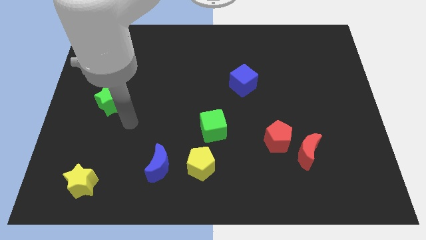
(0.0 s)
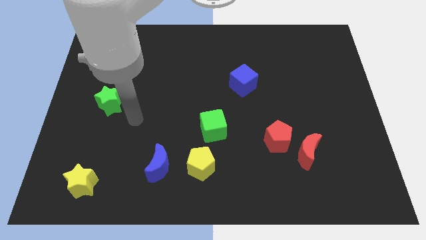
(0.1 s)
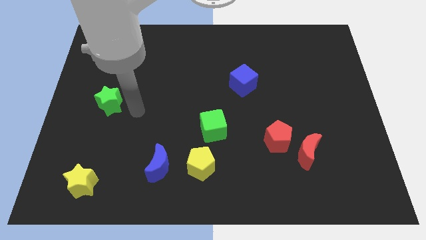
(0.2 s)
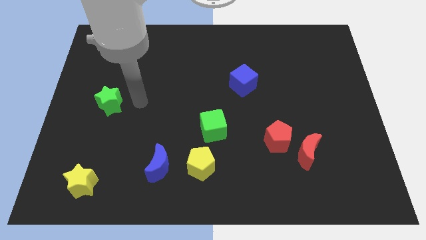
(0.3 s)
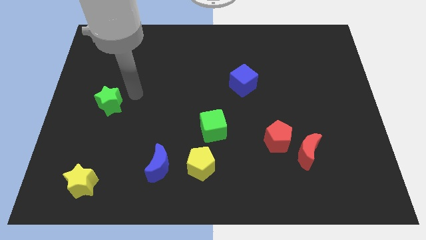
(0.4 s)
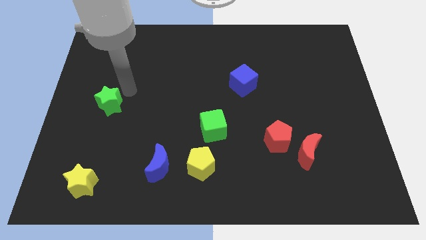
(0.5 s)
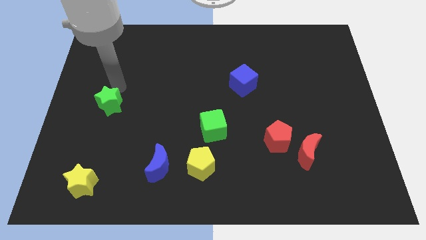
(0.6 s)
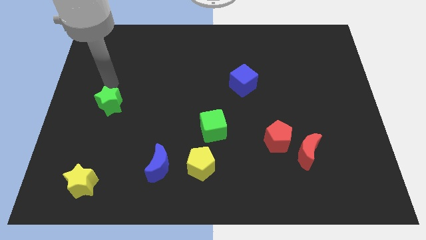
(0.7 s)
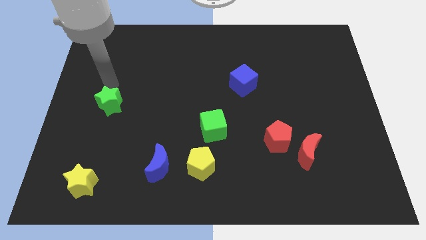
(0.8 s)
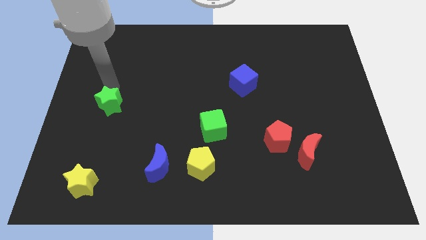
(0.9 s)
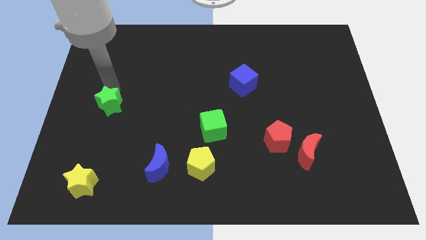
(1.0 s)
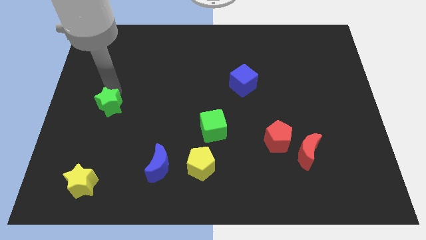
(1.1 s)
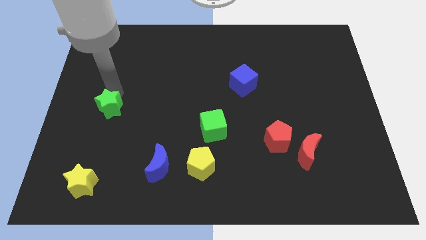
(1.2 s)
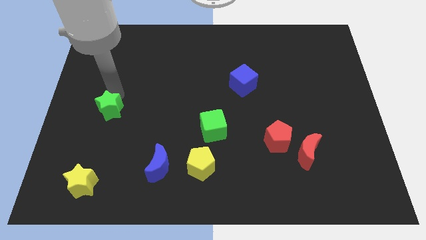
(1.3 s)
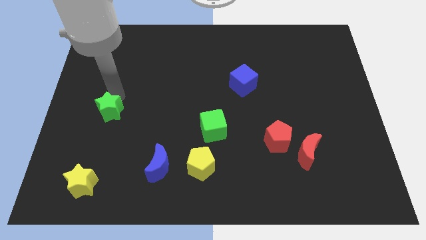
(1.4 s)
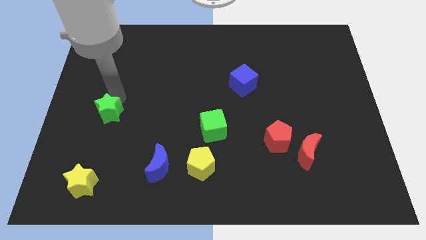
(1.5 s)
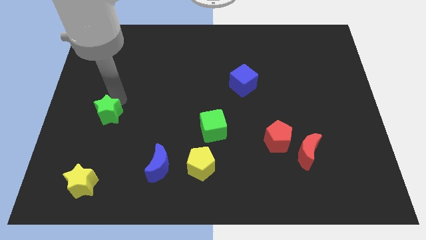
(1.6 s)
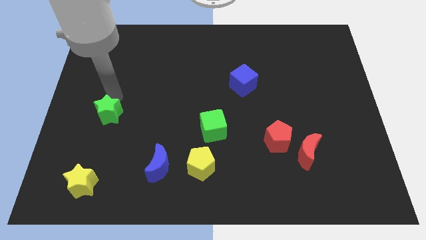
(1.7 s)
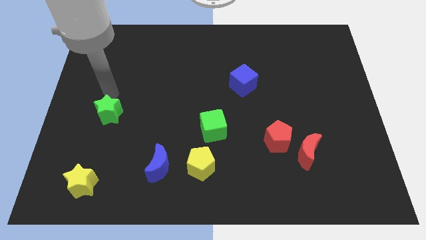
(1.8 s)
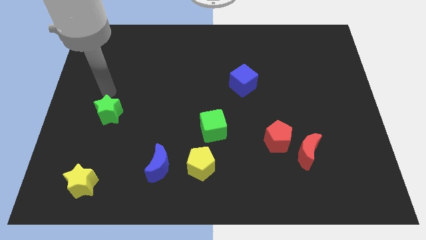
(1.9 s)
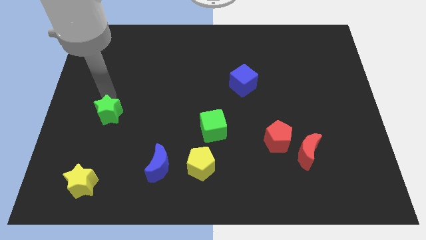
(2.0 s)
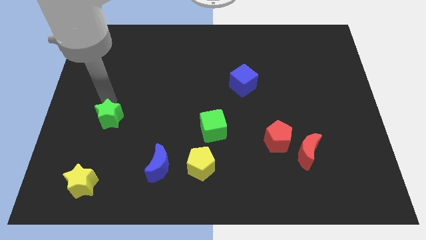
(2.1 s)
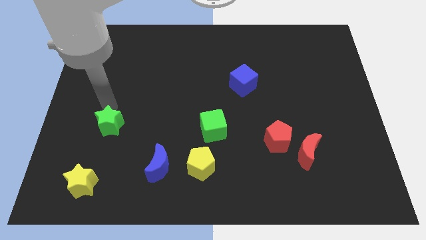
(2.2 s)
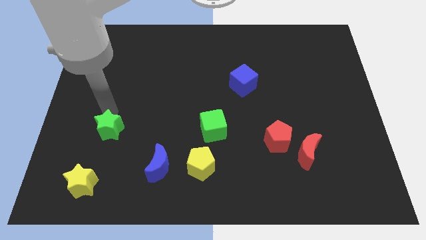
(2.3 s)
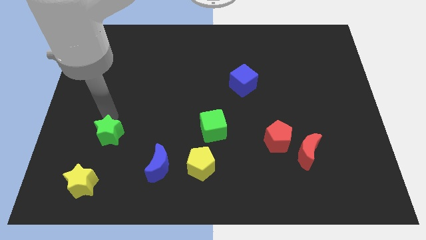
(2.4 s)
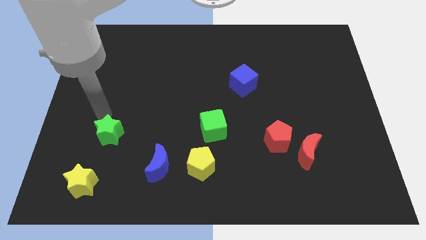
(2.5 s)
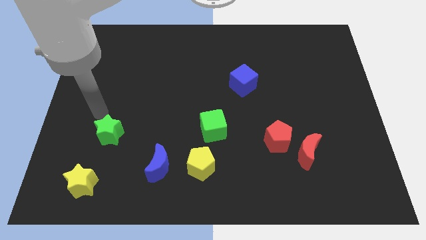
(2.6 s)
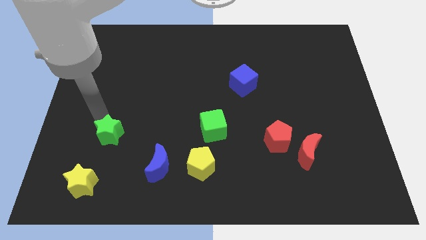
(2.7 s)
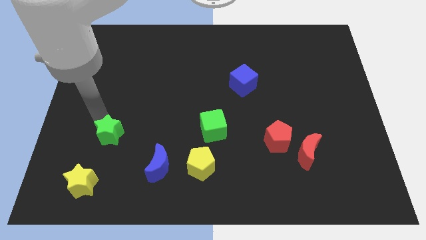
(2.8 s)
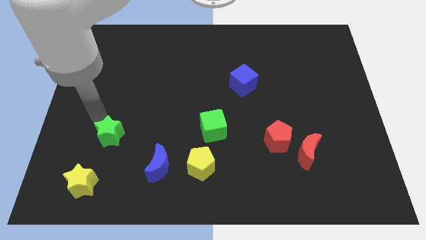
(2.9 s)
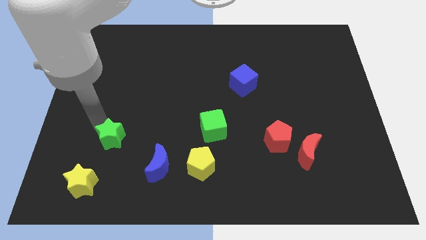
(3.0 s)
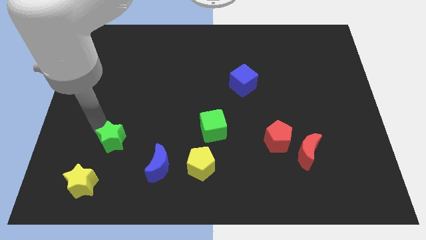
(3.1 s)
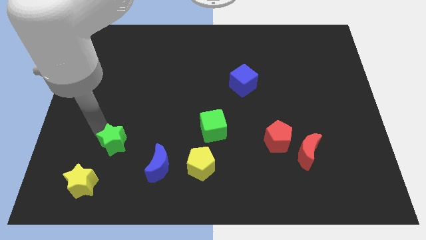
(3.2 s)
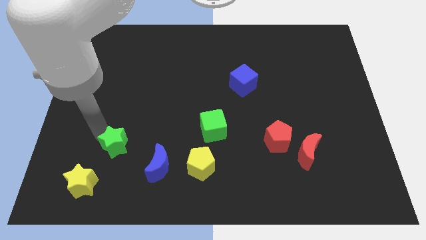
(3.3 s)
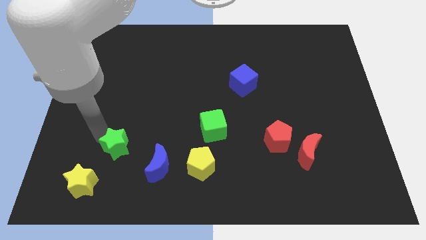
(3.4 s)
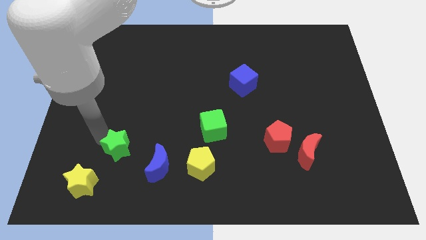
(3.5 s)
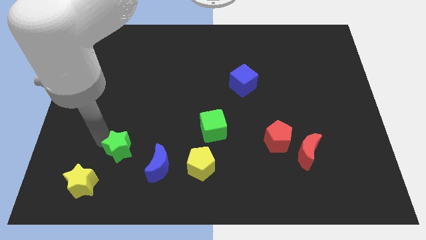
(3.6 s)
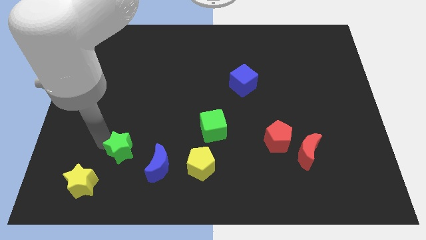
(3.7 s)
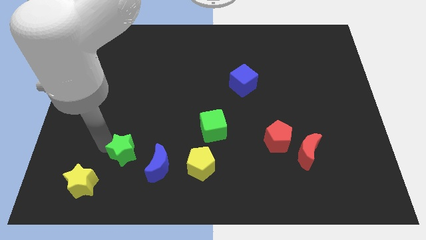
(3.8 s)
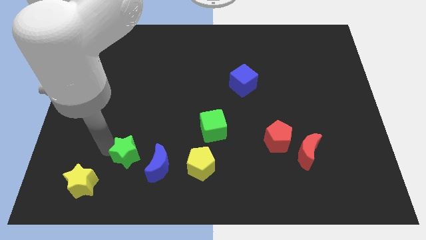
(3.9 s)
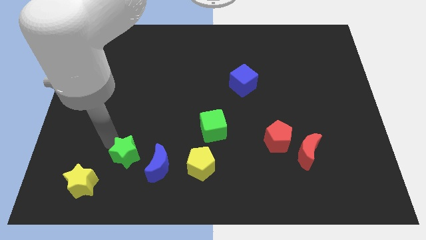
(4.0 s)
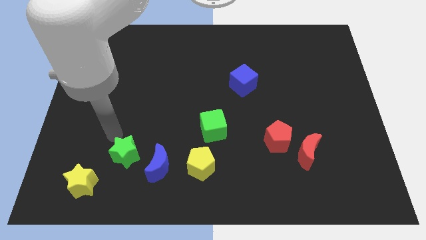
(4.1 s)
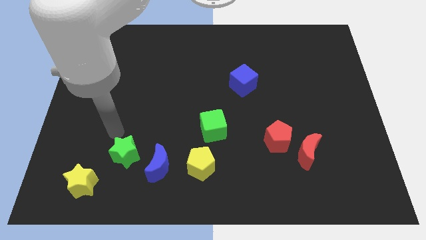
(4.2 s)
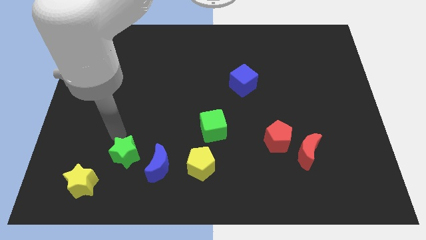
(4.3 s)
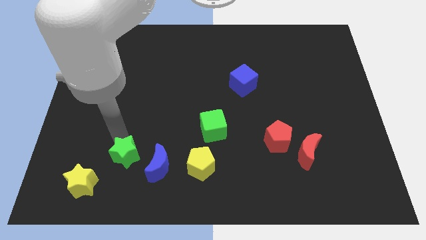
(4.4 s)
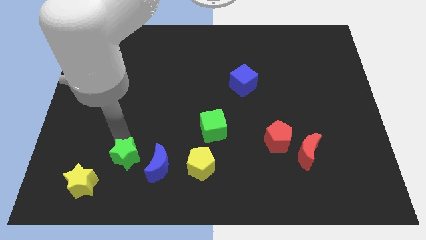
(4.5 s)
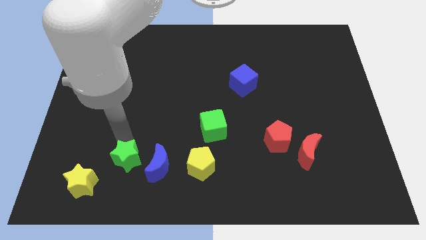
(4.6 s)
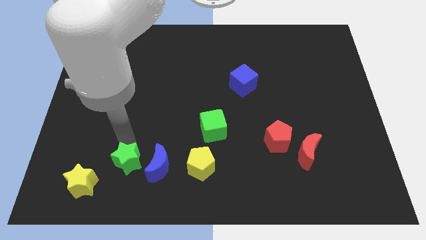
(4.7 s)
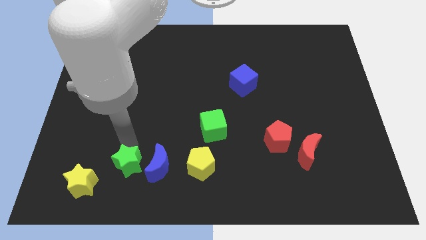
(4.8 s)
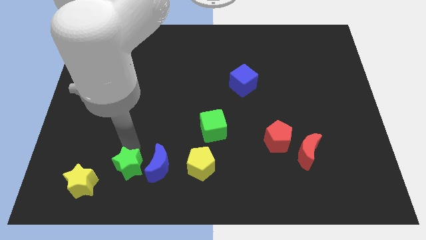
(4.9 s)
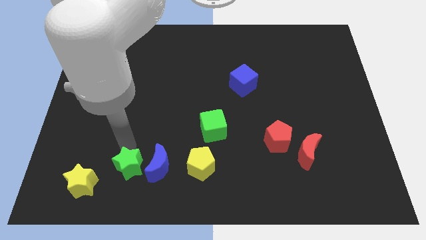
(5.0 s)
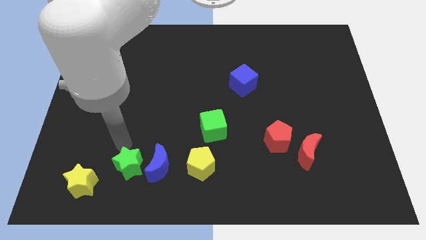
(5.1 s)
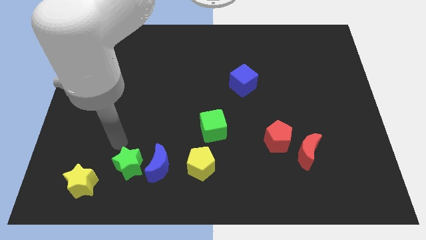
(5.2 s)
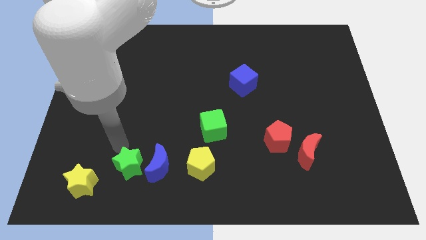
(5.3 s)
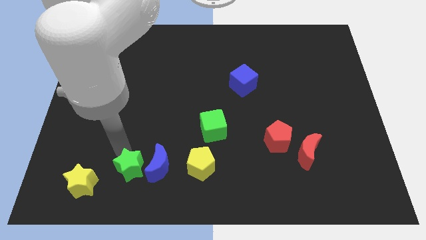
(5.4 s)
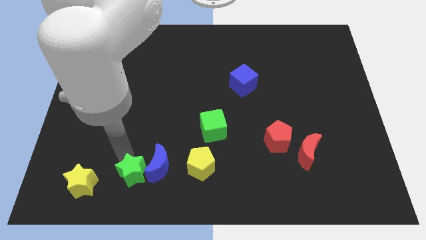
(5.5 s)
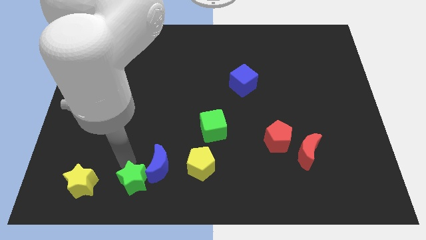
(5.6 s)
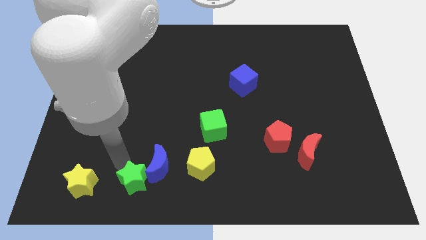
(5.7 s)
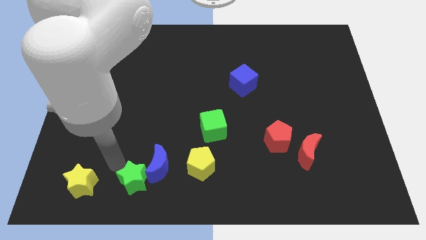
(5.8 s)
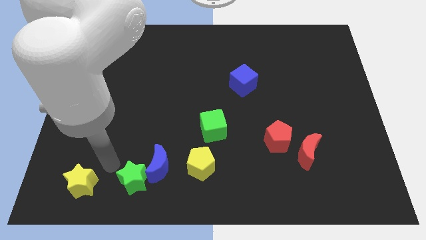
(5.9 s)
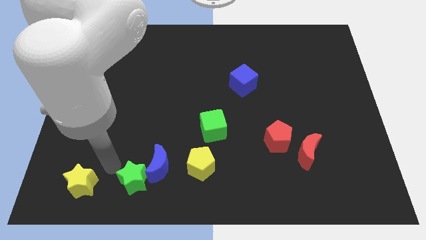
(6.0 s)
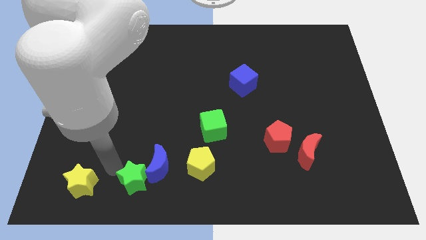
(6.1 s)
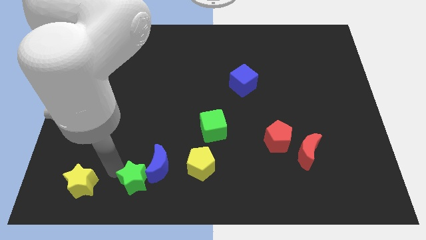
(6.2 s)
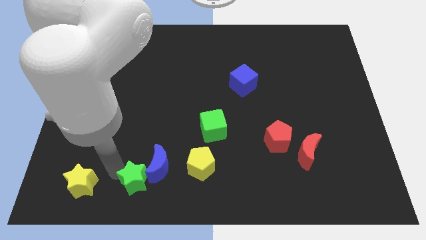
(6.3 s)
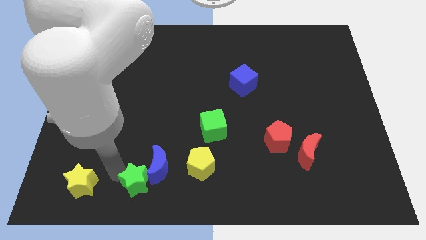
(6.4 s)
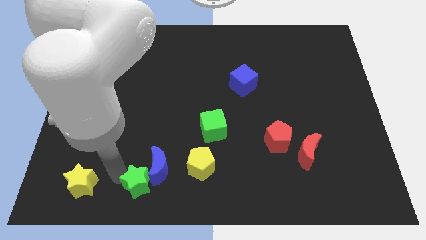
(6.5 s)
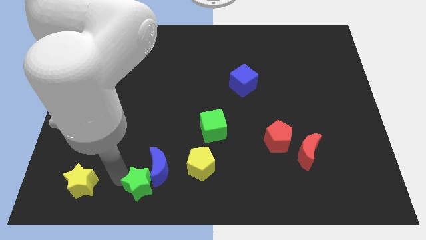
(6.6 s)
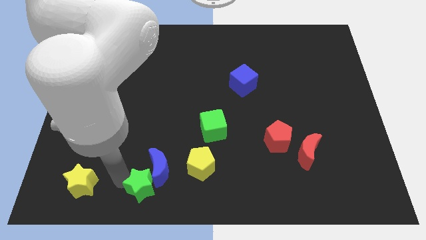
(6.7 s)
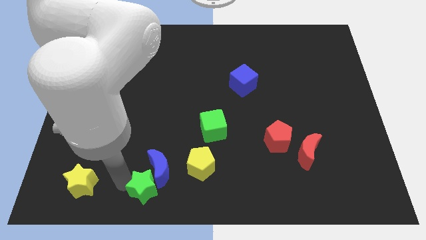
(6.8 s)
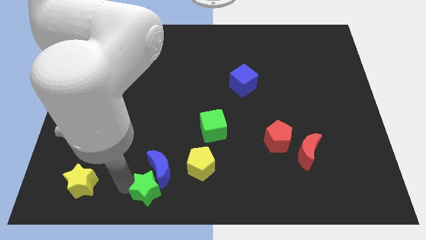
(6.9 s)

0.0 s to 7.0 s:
put the green star to the bottom side
